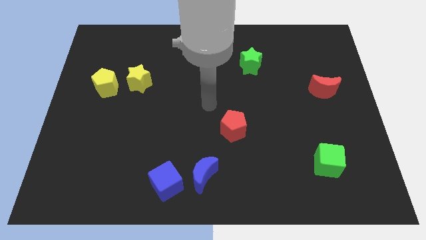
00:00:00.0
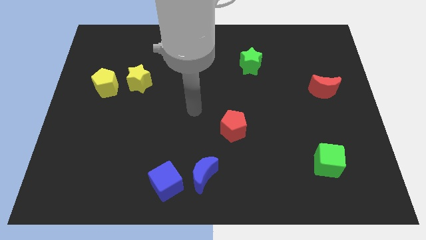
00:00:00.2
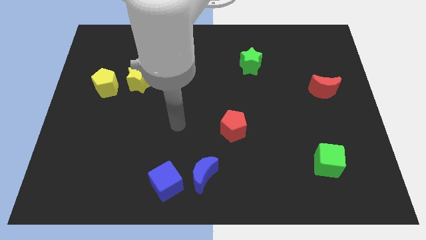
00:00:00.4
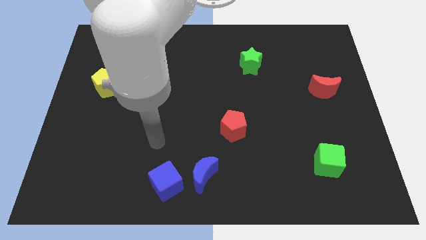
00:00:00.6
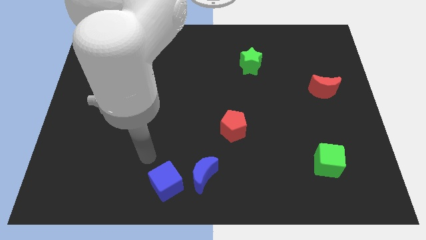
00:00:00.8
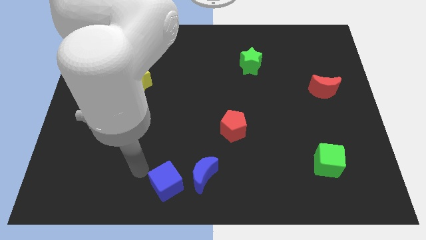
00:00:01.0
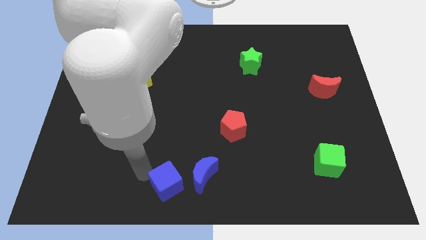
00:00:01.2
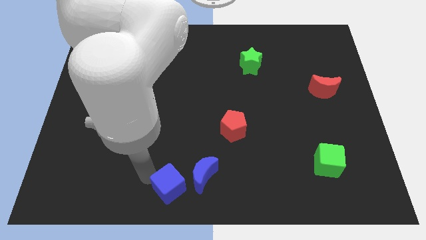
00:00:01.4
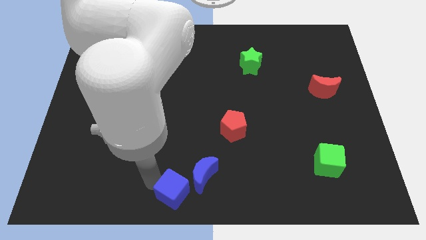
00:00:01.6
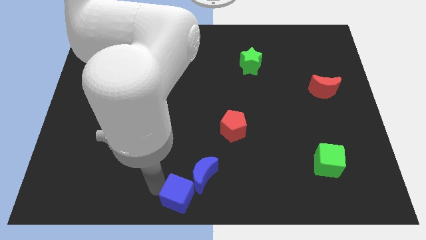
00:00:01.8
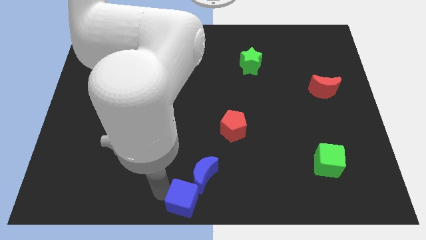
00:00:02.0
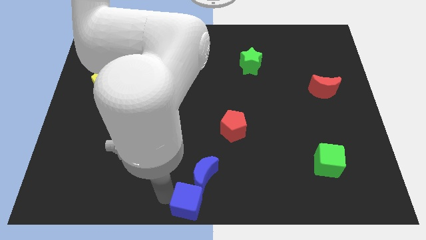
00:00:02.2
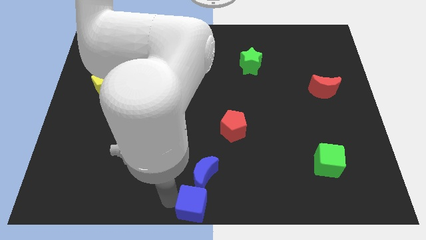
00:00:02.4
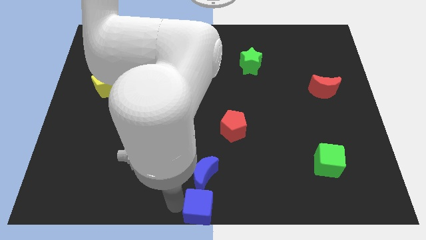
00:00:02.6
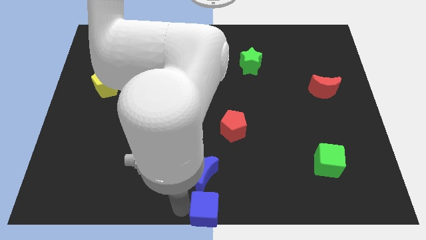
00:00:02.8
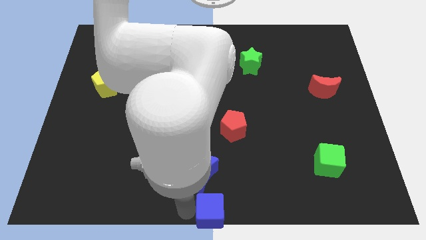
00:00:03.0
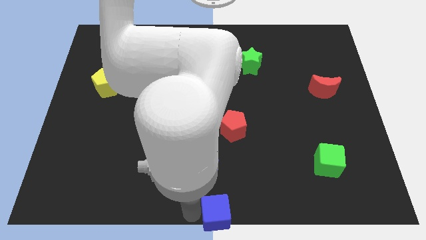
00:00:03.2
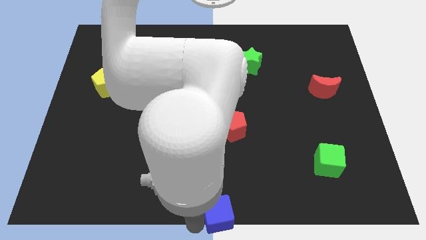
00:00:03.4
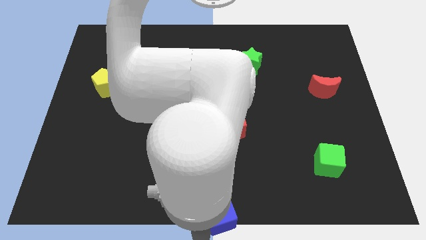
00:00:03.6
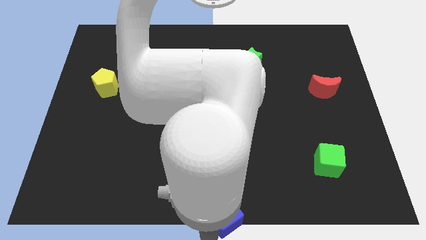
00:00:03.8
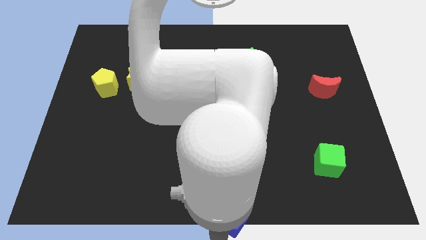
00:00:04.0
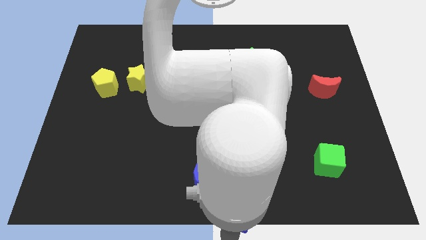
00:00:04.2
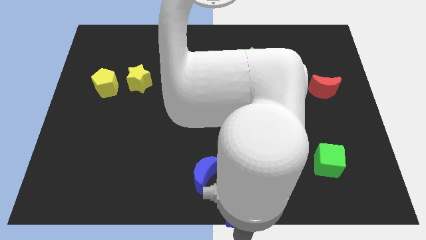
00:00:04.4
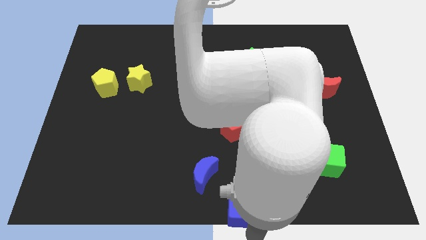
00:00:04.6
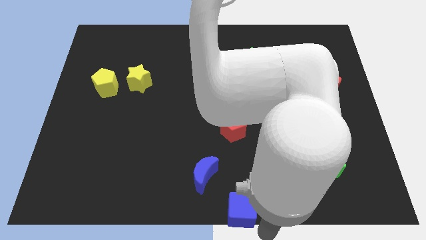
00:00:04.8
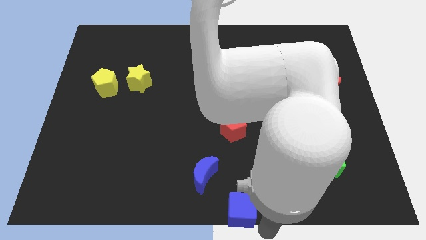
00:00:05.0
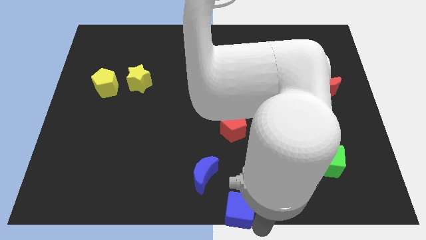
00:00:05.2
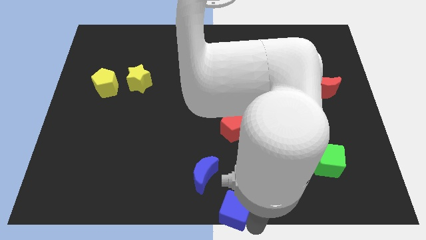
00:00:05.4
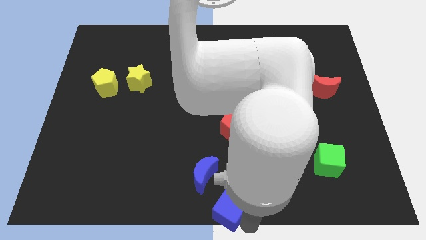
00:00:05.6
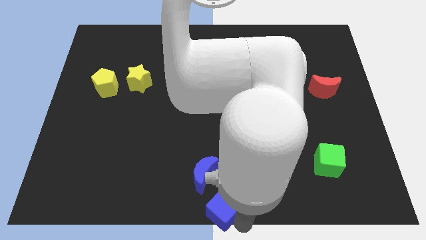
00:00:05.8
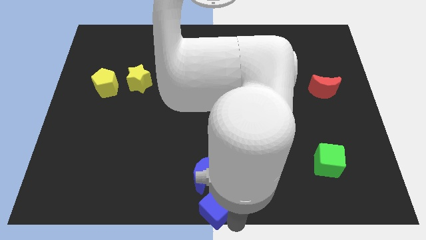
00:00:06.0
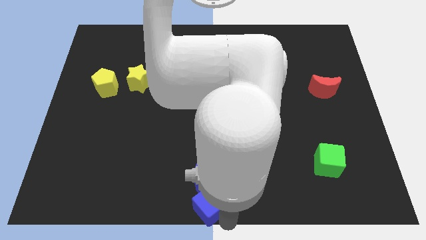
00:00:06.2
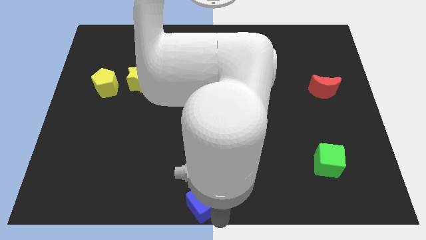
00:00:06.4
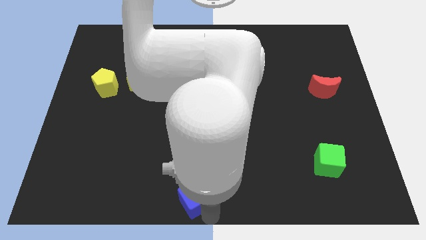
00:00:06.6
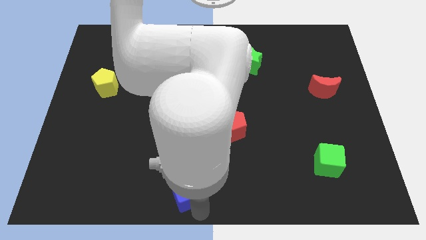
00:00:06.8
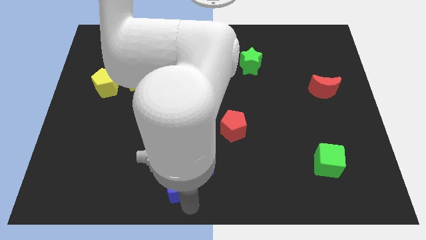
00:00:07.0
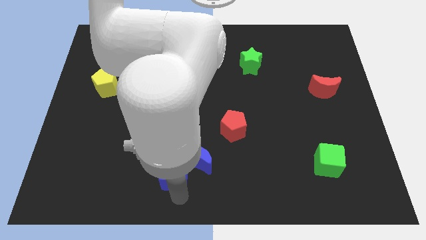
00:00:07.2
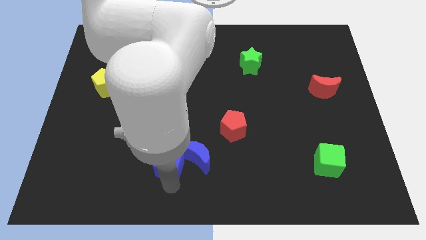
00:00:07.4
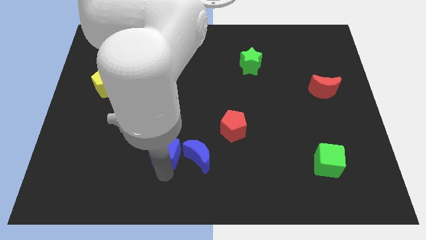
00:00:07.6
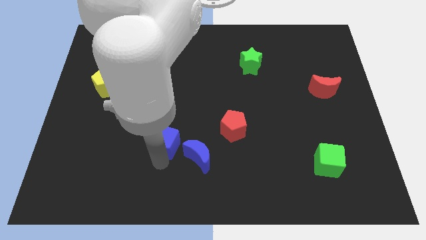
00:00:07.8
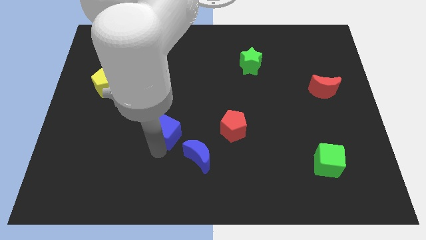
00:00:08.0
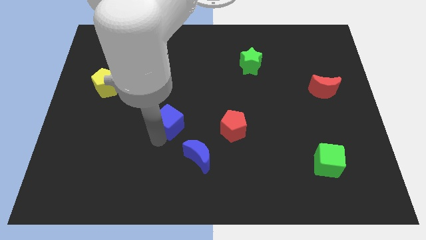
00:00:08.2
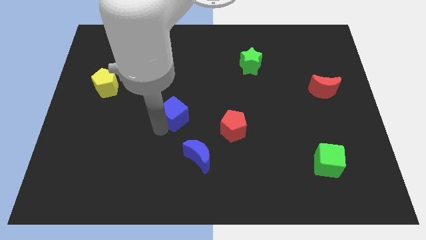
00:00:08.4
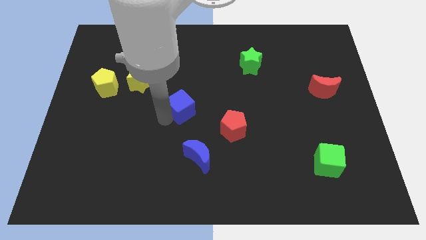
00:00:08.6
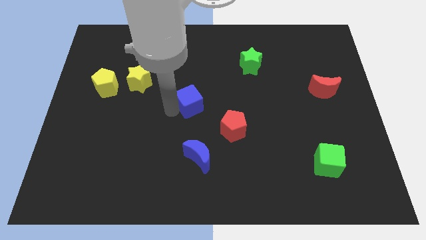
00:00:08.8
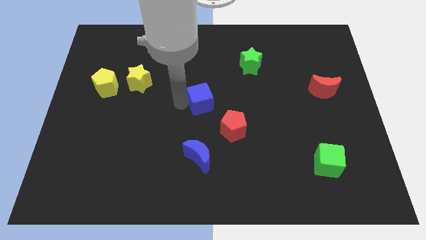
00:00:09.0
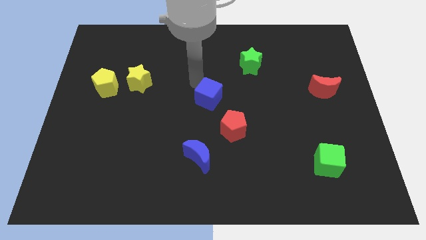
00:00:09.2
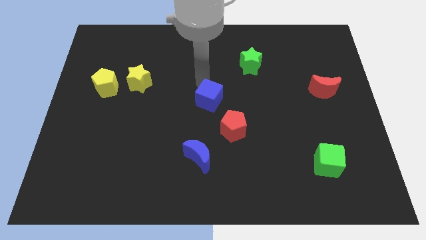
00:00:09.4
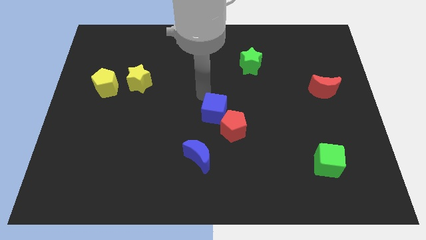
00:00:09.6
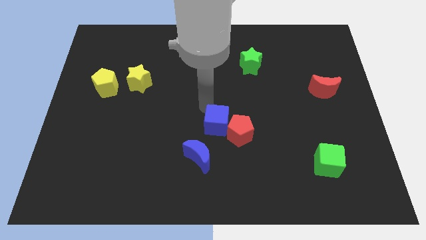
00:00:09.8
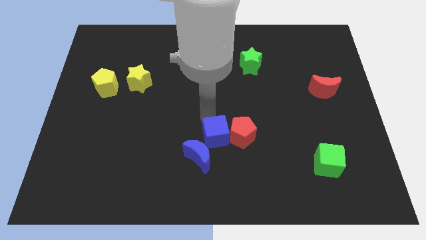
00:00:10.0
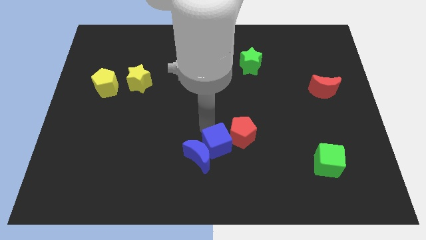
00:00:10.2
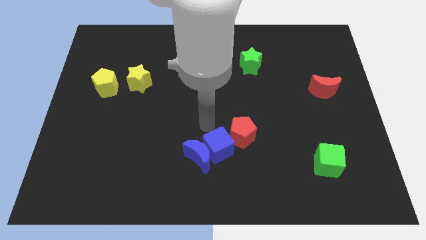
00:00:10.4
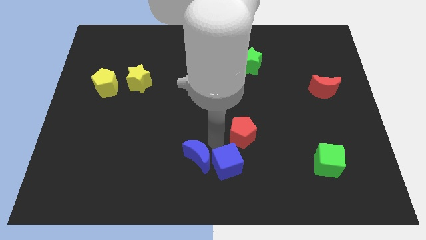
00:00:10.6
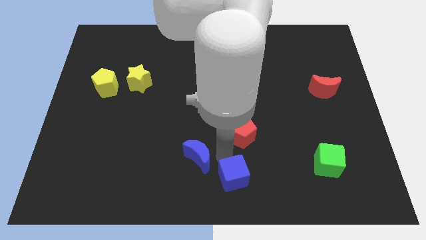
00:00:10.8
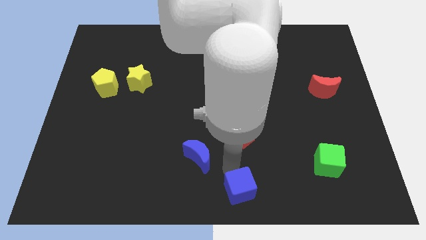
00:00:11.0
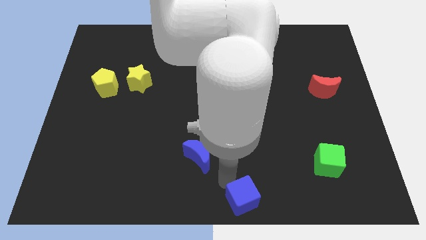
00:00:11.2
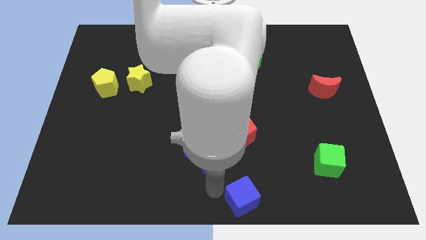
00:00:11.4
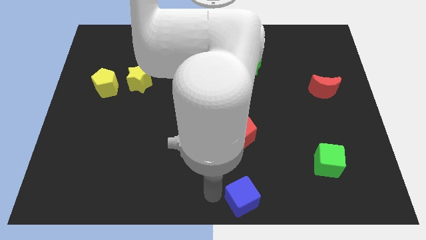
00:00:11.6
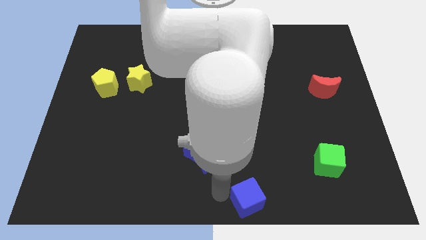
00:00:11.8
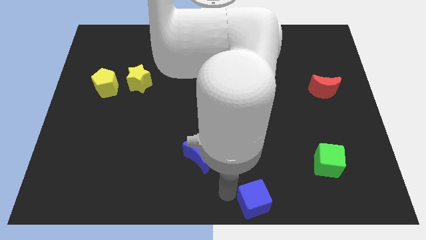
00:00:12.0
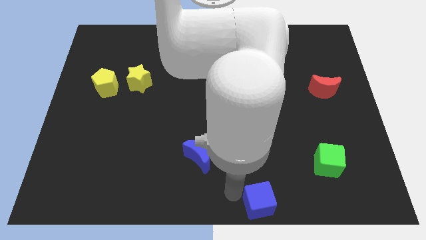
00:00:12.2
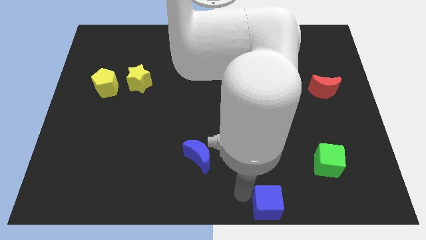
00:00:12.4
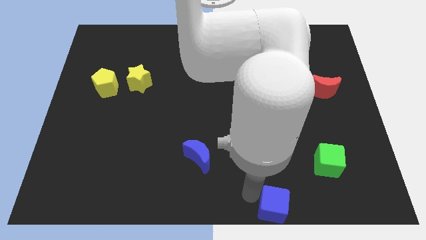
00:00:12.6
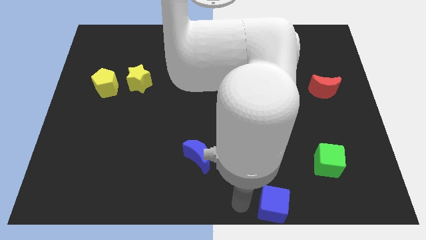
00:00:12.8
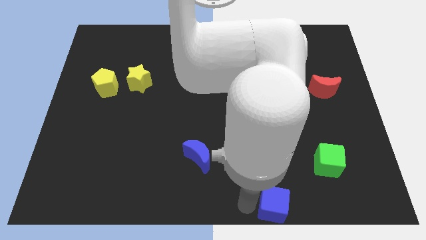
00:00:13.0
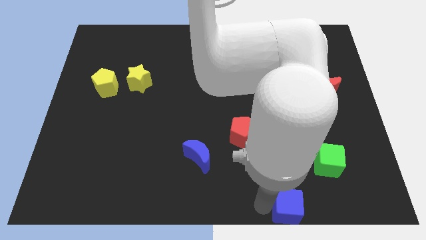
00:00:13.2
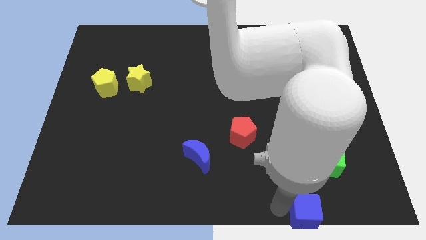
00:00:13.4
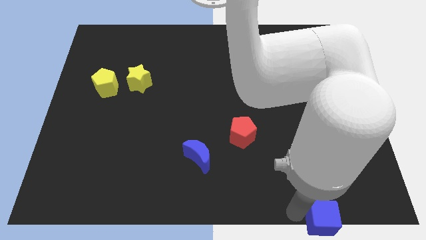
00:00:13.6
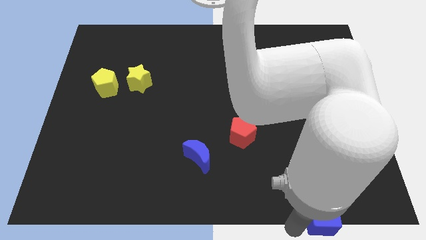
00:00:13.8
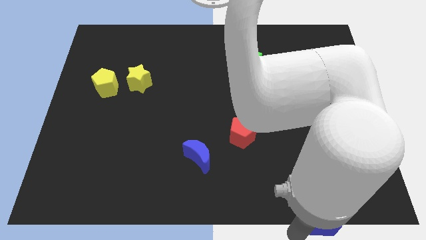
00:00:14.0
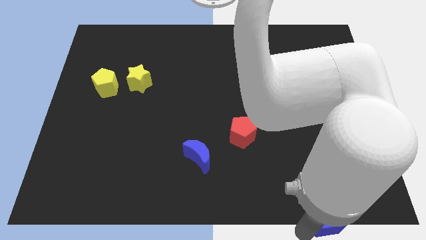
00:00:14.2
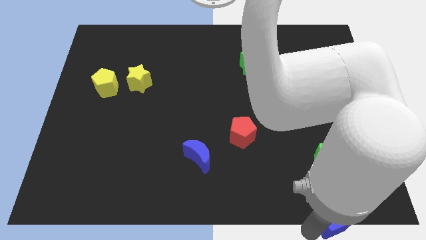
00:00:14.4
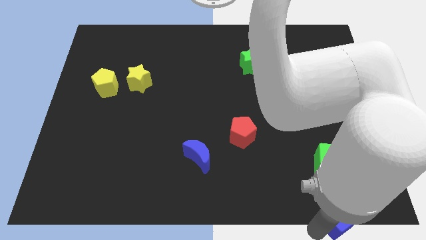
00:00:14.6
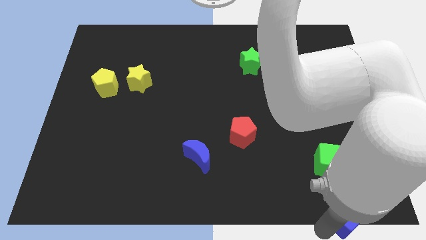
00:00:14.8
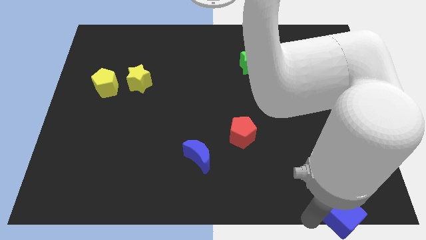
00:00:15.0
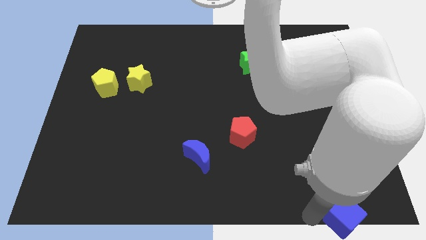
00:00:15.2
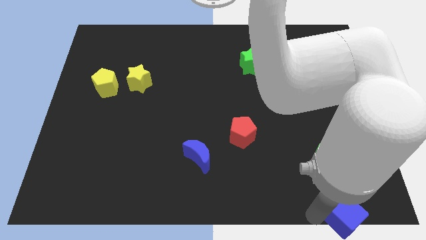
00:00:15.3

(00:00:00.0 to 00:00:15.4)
put the blue cube to the lower right corner
